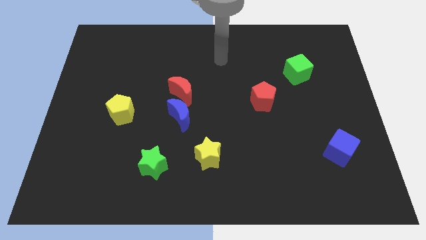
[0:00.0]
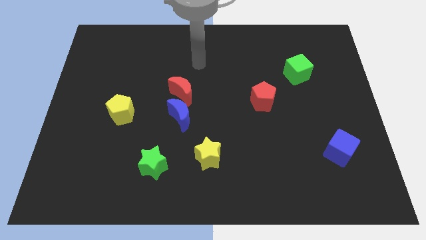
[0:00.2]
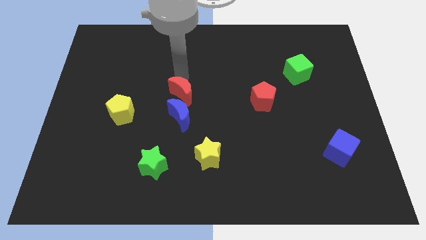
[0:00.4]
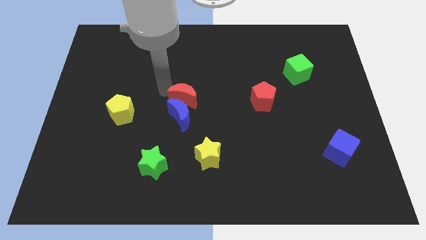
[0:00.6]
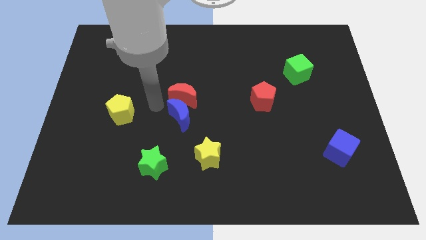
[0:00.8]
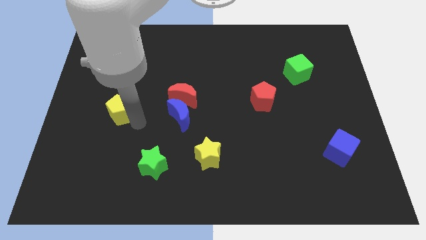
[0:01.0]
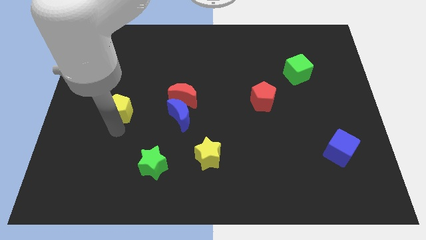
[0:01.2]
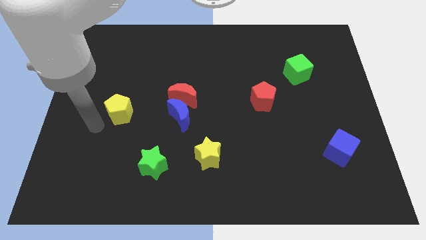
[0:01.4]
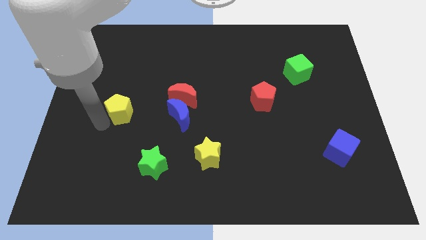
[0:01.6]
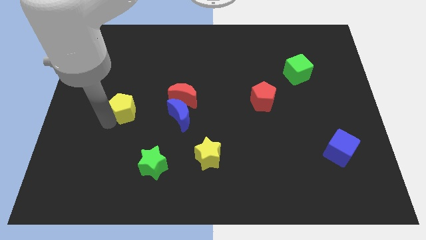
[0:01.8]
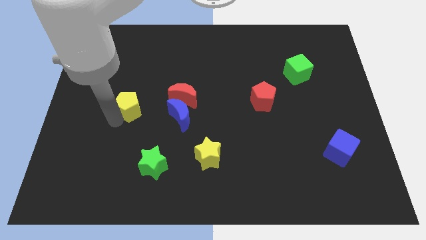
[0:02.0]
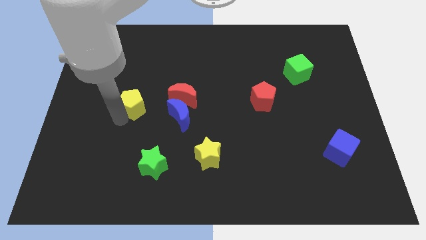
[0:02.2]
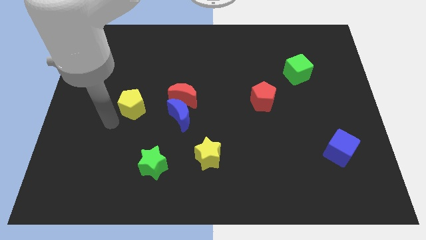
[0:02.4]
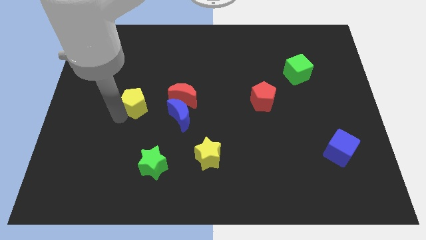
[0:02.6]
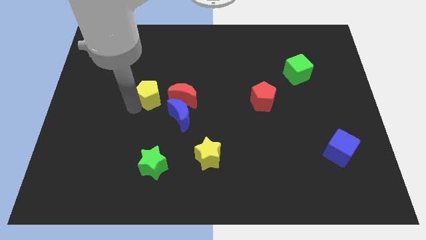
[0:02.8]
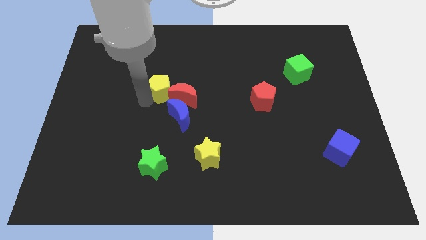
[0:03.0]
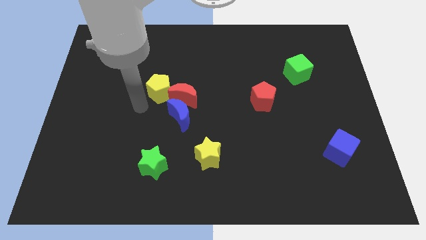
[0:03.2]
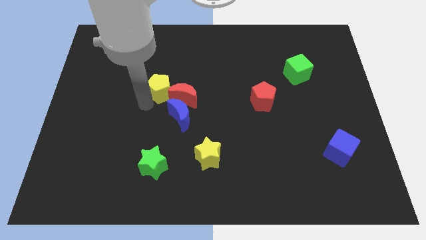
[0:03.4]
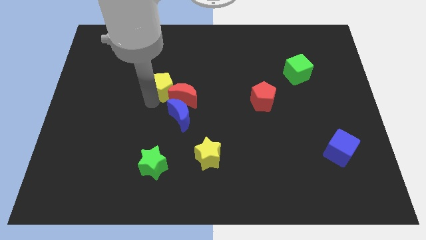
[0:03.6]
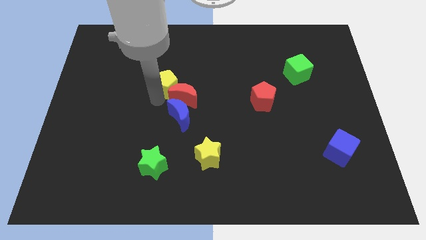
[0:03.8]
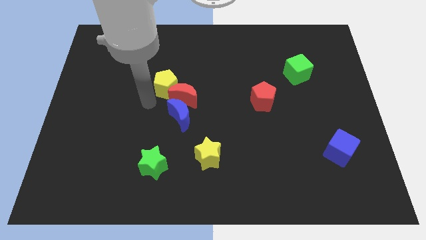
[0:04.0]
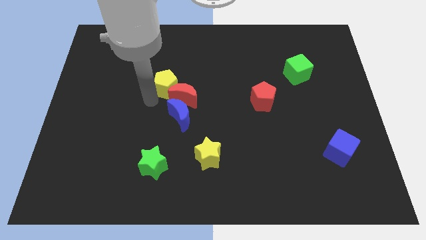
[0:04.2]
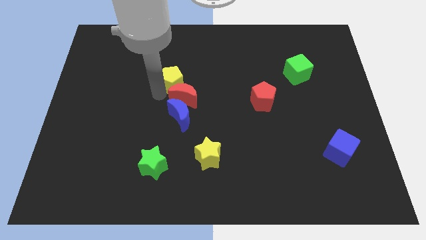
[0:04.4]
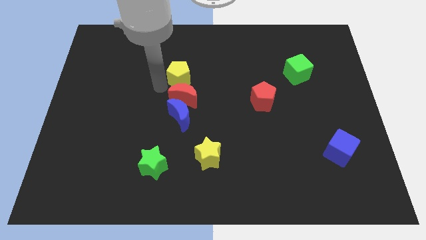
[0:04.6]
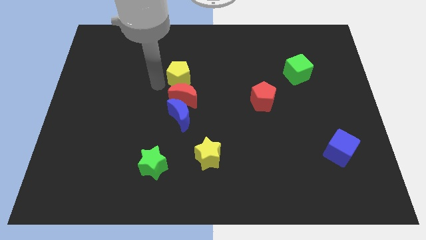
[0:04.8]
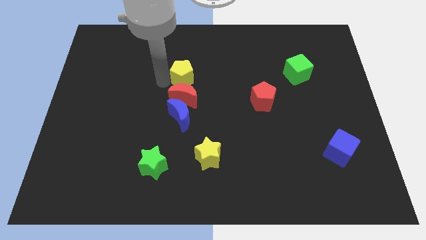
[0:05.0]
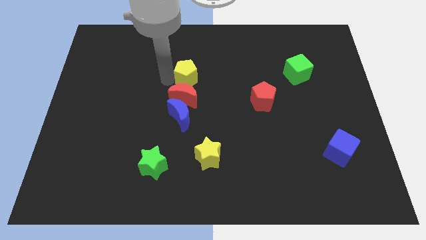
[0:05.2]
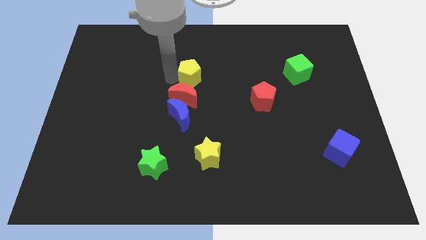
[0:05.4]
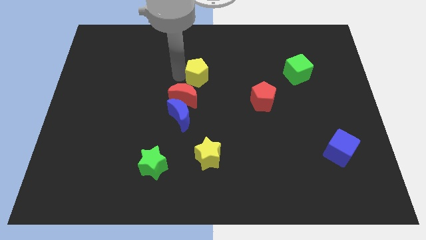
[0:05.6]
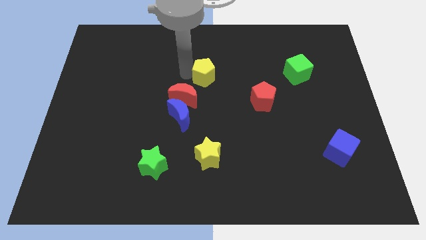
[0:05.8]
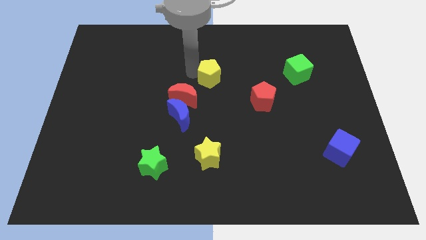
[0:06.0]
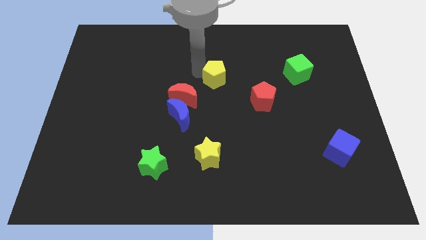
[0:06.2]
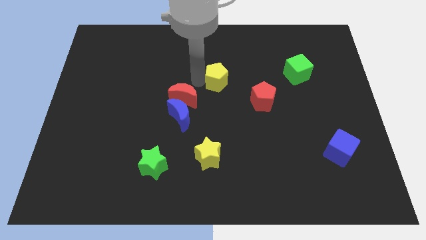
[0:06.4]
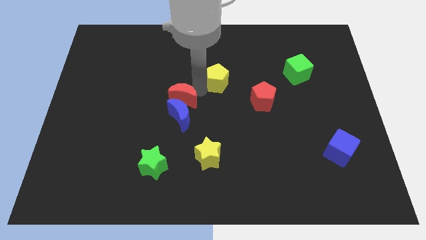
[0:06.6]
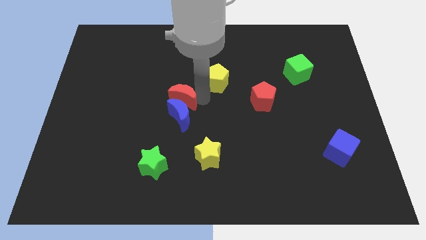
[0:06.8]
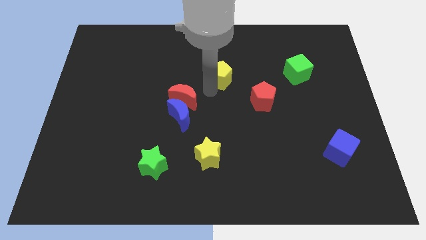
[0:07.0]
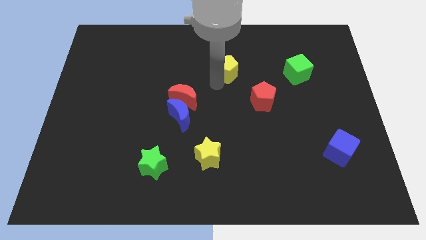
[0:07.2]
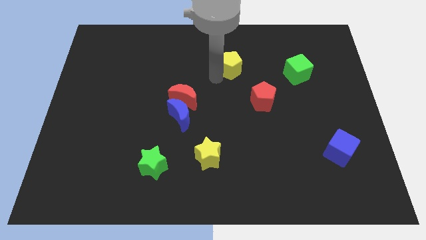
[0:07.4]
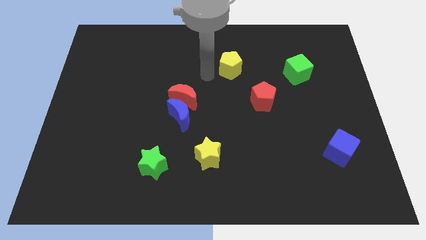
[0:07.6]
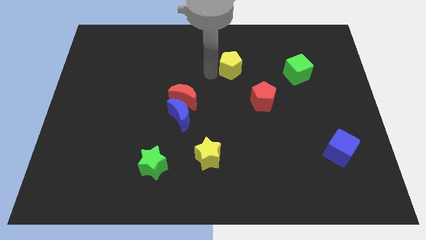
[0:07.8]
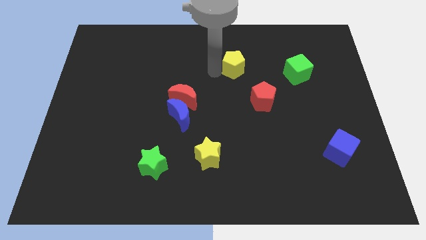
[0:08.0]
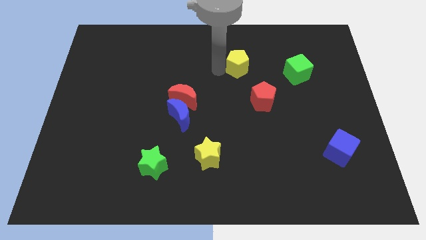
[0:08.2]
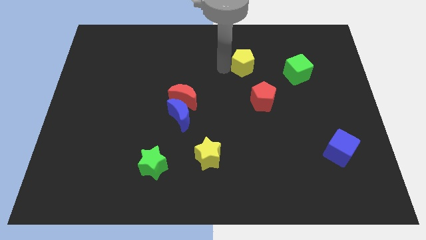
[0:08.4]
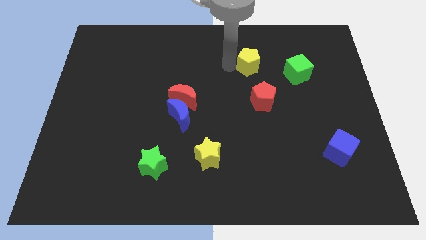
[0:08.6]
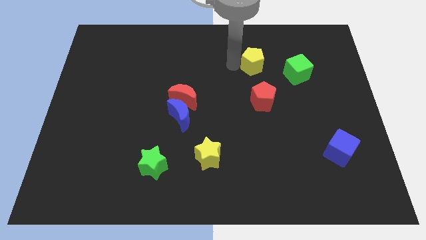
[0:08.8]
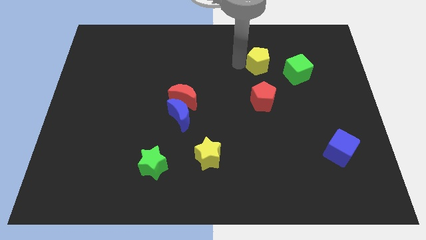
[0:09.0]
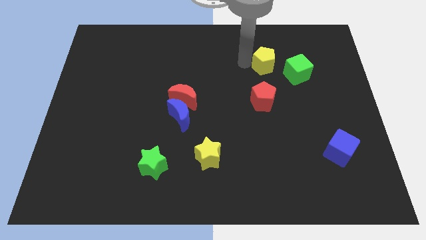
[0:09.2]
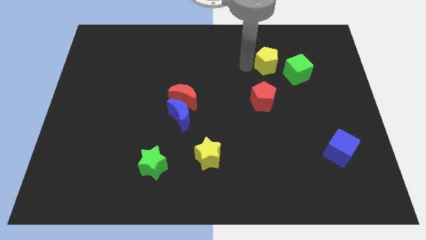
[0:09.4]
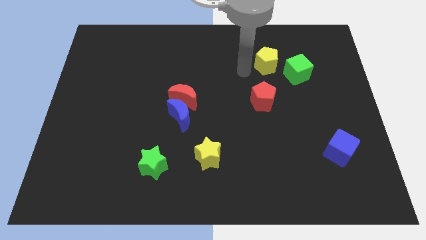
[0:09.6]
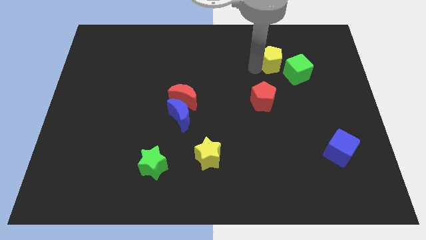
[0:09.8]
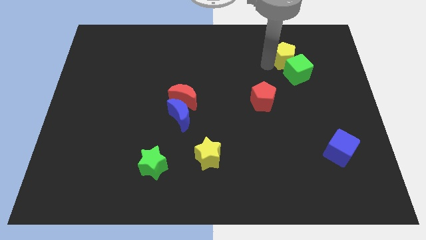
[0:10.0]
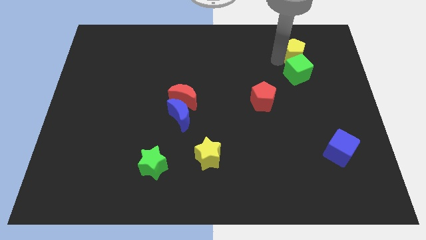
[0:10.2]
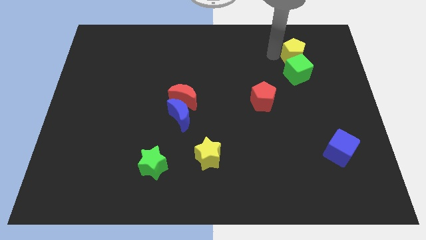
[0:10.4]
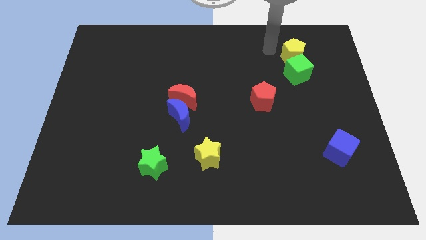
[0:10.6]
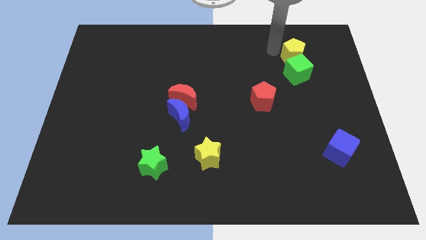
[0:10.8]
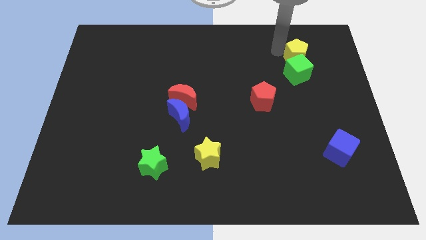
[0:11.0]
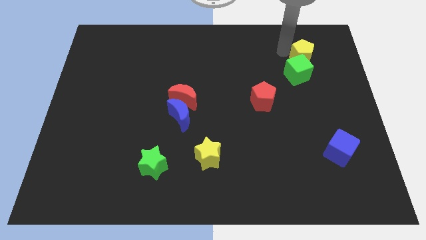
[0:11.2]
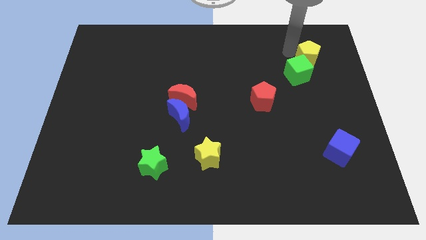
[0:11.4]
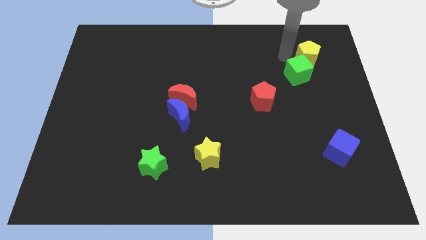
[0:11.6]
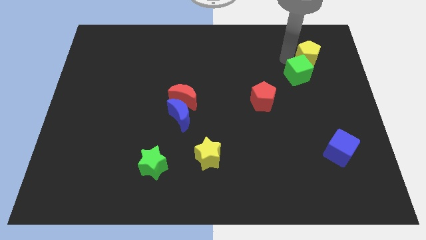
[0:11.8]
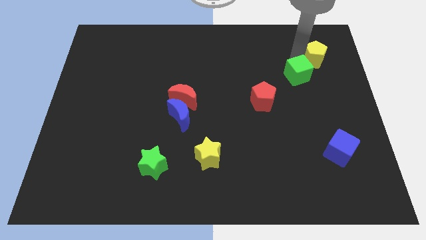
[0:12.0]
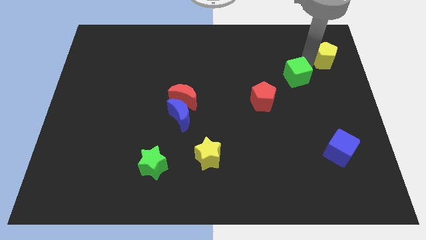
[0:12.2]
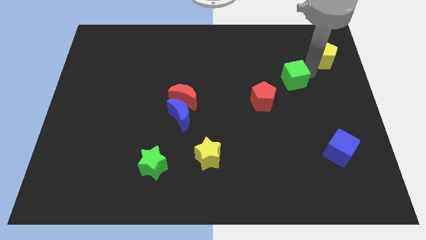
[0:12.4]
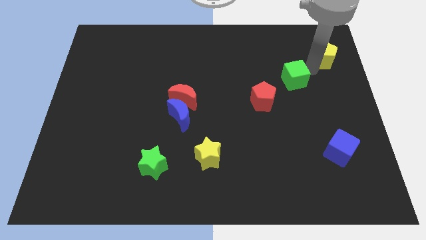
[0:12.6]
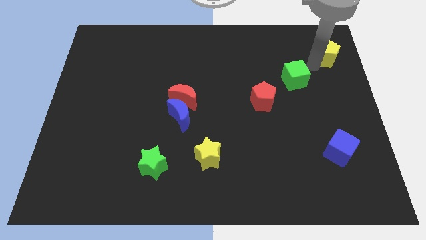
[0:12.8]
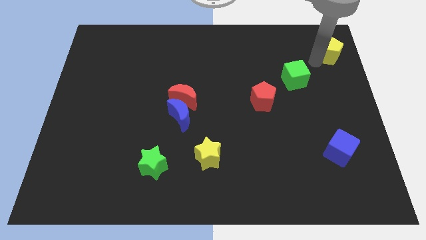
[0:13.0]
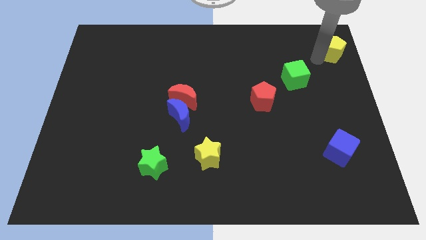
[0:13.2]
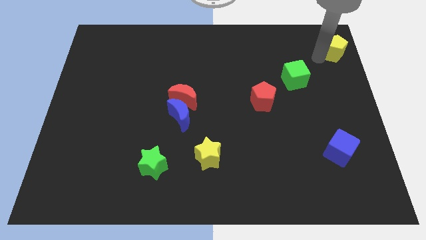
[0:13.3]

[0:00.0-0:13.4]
move the yellow pentagon to the top right corner
